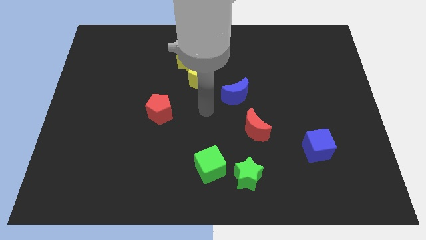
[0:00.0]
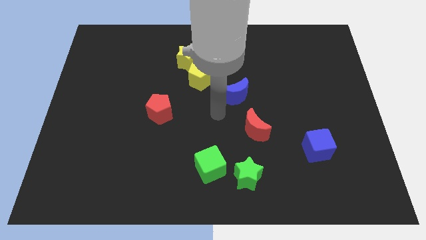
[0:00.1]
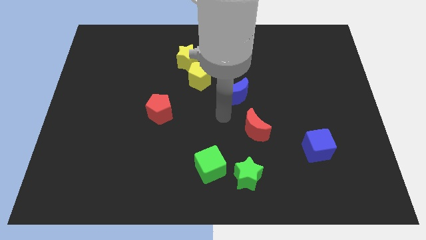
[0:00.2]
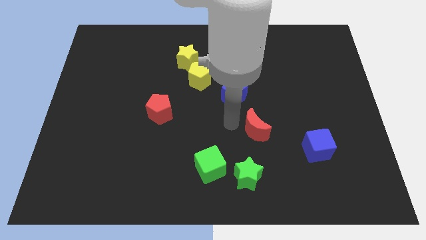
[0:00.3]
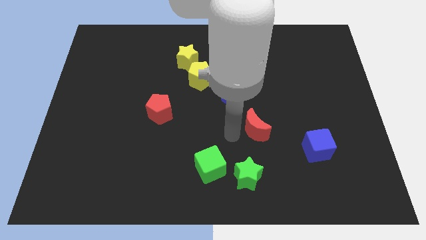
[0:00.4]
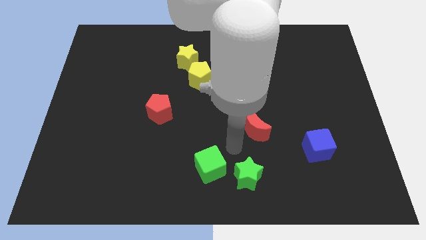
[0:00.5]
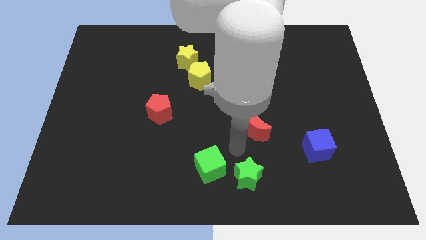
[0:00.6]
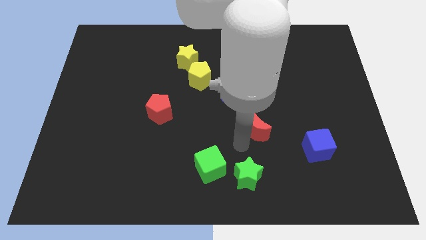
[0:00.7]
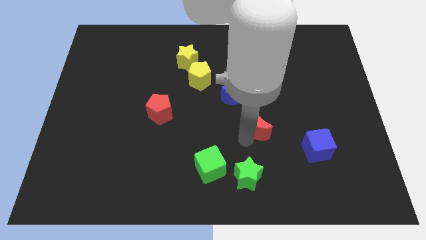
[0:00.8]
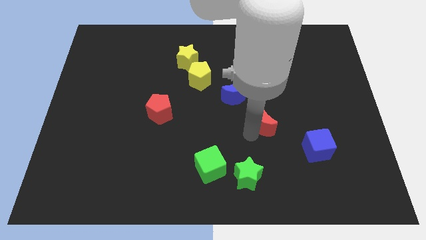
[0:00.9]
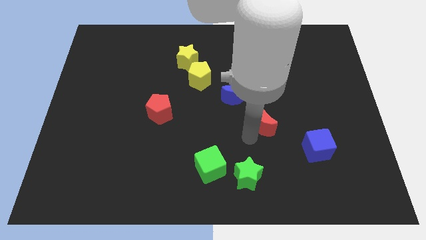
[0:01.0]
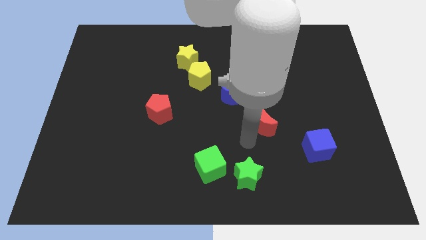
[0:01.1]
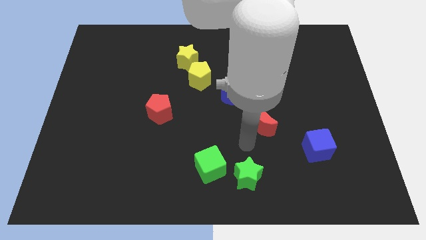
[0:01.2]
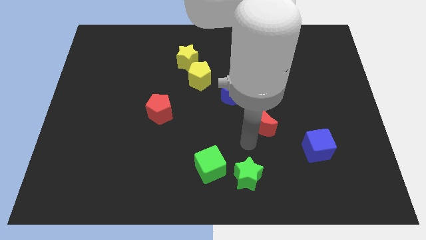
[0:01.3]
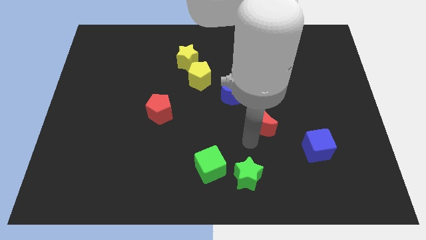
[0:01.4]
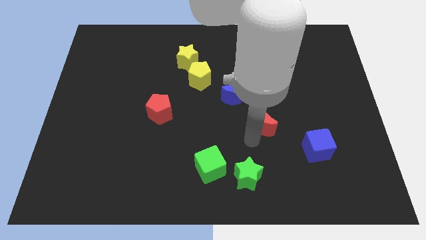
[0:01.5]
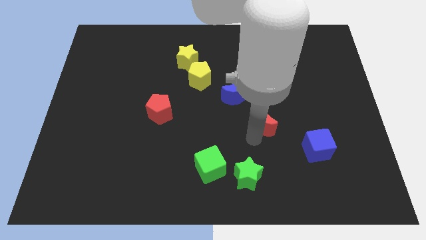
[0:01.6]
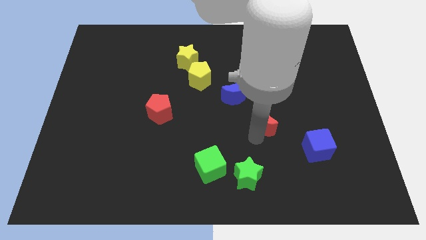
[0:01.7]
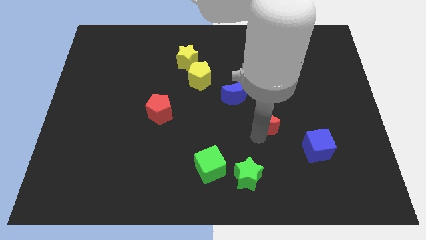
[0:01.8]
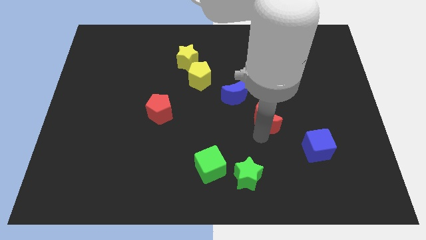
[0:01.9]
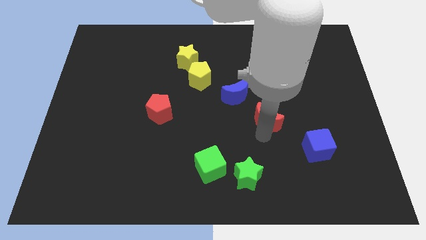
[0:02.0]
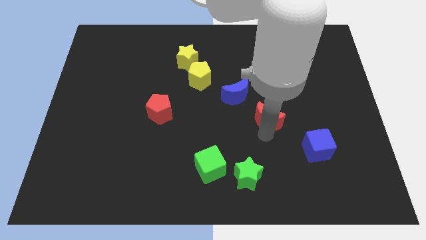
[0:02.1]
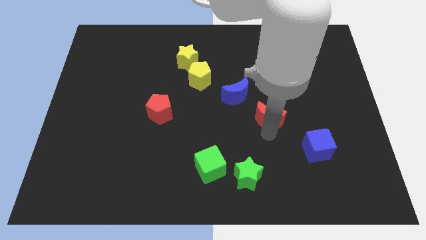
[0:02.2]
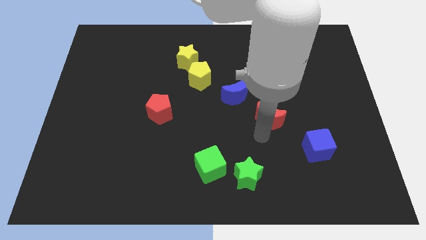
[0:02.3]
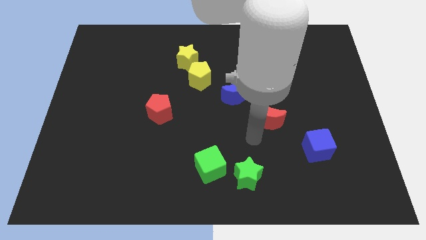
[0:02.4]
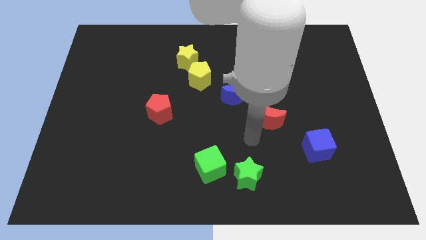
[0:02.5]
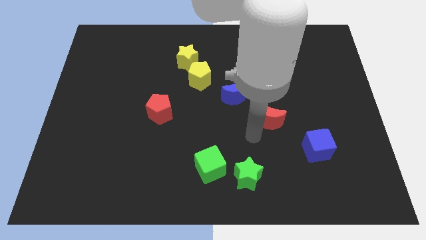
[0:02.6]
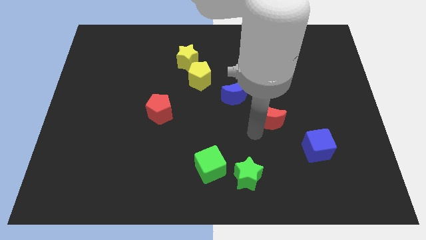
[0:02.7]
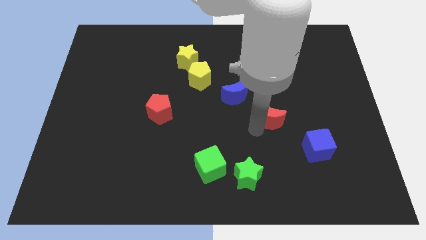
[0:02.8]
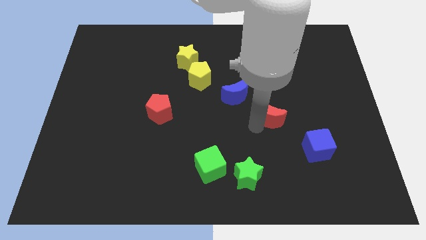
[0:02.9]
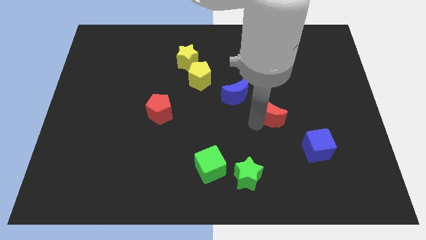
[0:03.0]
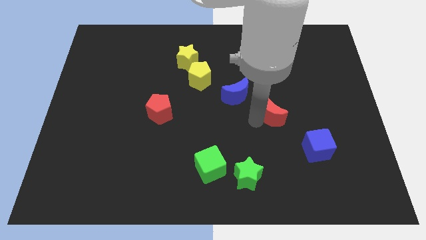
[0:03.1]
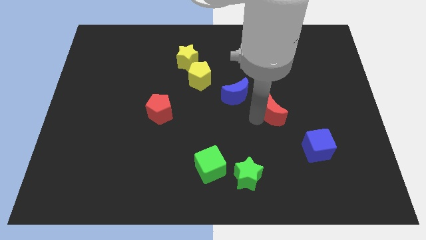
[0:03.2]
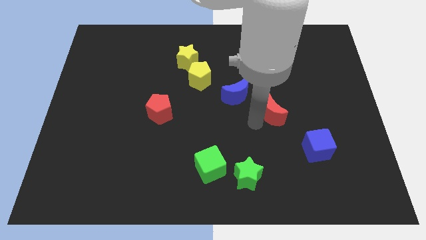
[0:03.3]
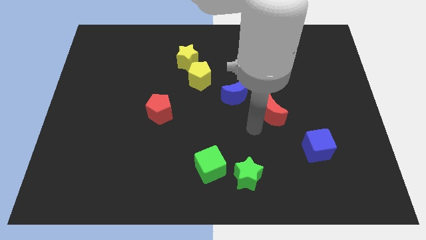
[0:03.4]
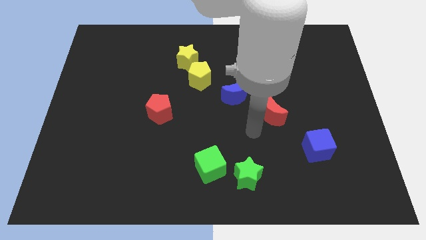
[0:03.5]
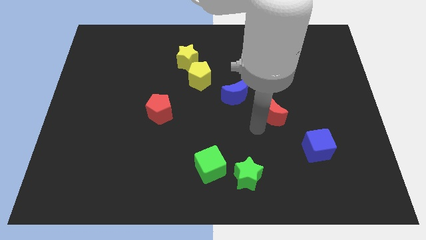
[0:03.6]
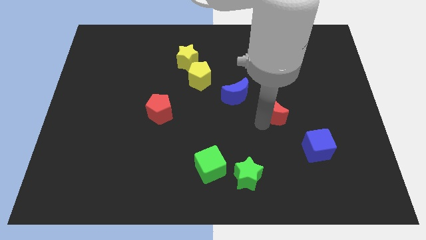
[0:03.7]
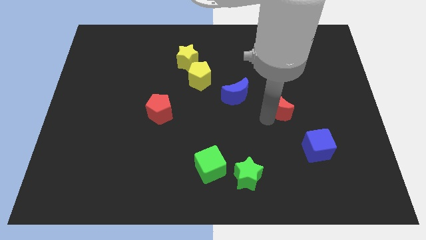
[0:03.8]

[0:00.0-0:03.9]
push the red moon diagonally up and right slightly

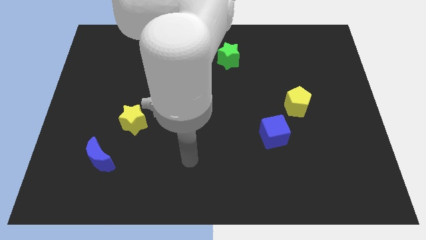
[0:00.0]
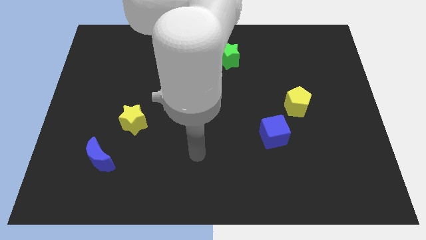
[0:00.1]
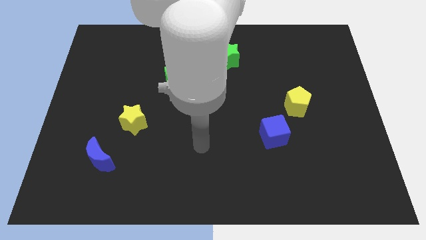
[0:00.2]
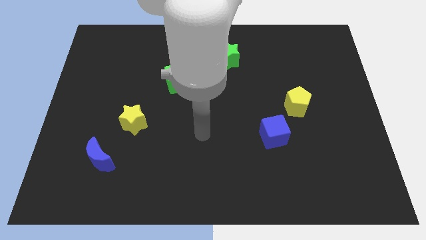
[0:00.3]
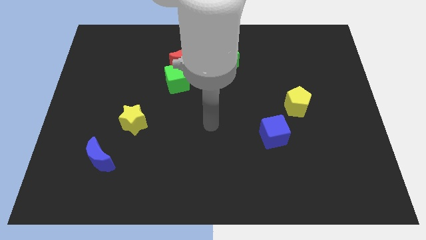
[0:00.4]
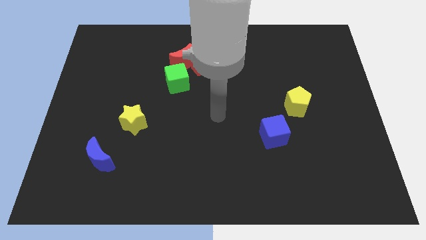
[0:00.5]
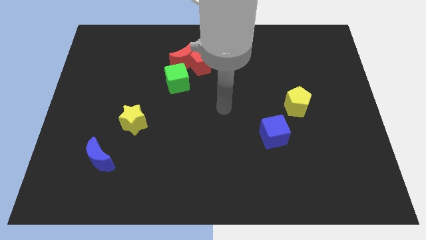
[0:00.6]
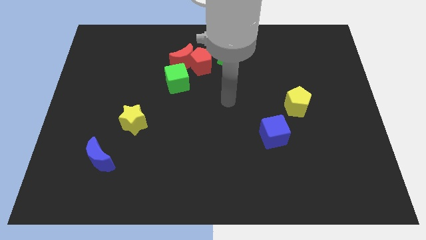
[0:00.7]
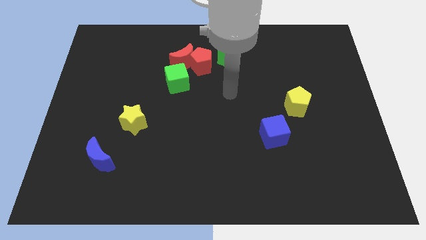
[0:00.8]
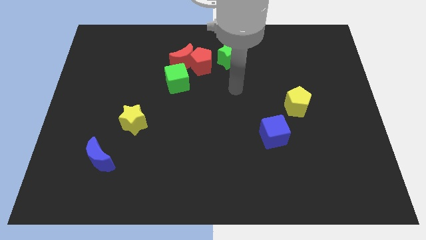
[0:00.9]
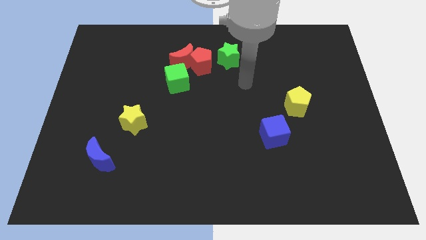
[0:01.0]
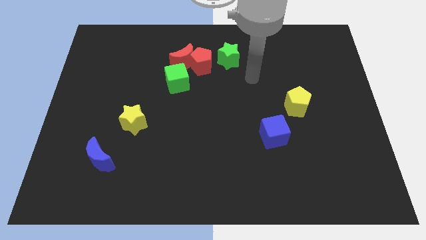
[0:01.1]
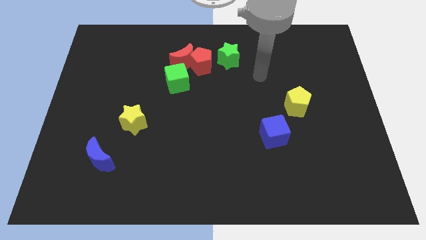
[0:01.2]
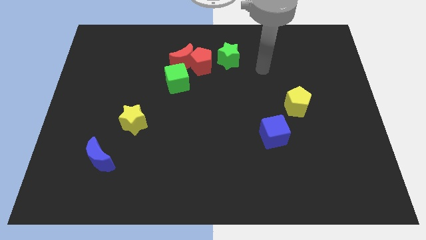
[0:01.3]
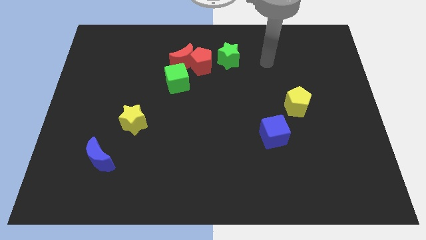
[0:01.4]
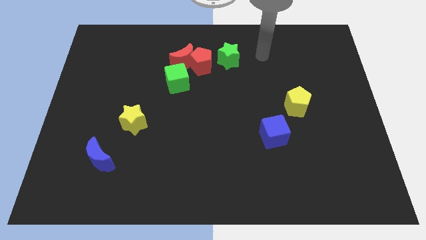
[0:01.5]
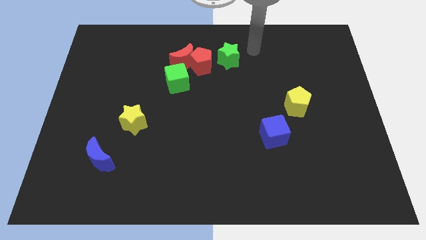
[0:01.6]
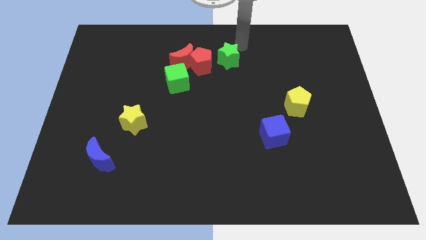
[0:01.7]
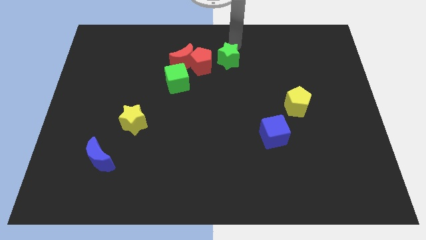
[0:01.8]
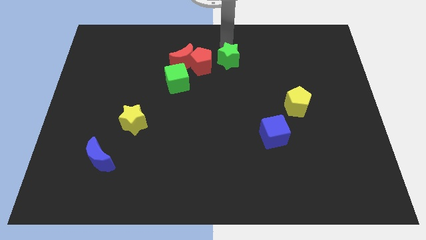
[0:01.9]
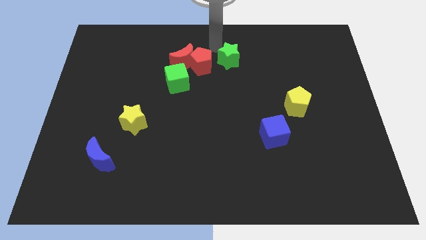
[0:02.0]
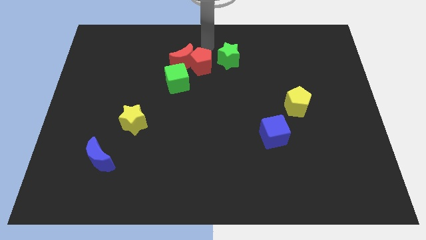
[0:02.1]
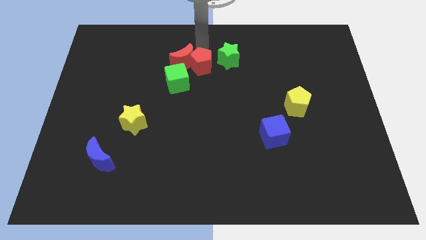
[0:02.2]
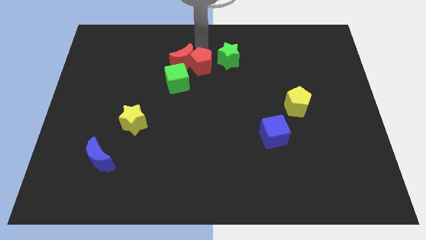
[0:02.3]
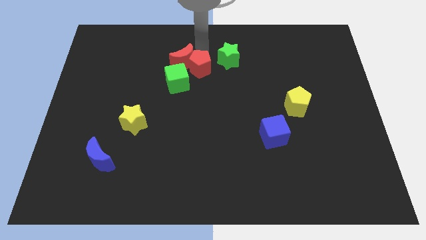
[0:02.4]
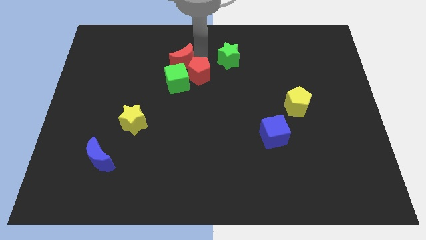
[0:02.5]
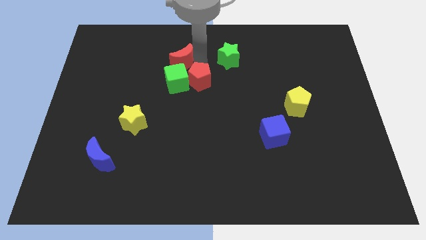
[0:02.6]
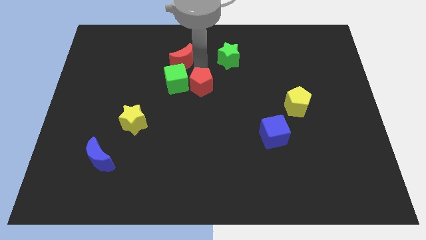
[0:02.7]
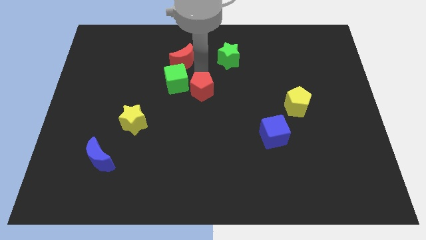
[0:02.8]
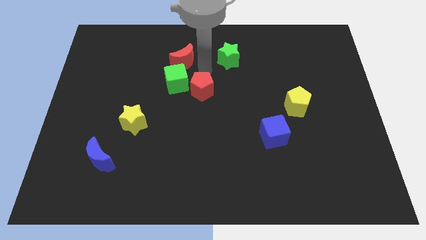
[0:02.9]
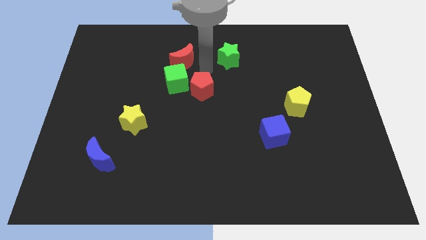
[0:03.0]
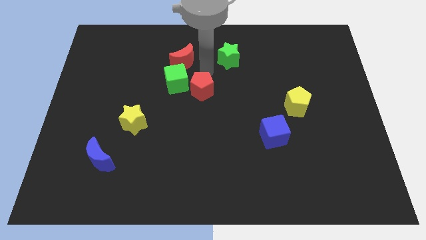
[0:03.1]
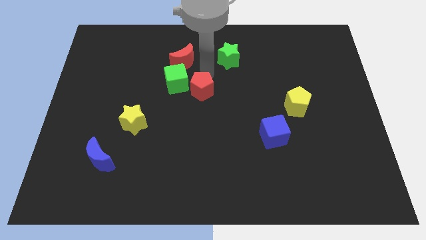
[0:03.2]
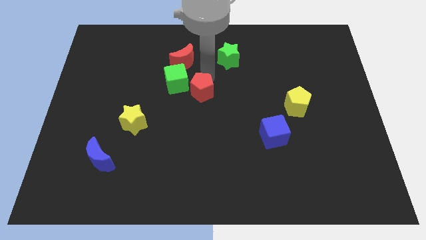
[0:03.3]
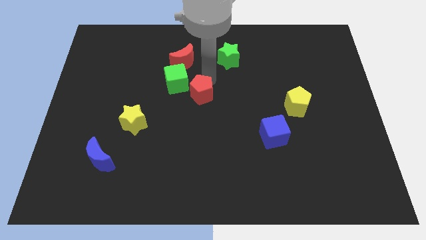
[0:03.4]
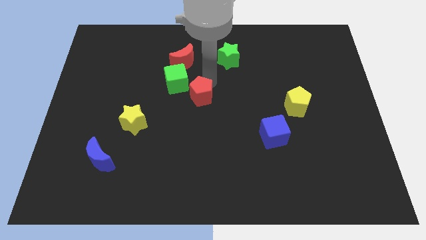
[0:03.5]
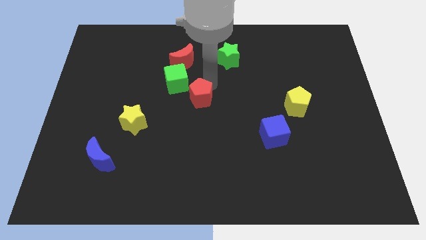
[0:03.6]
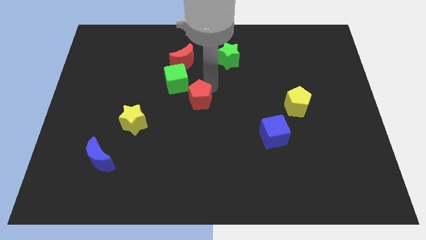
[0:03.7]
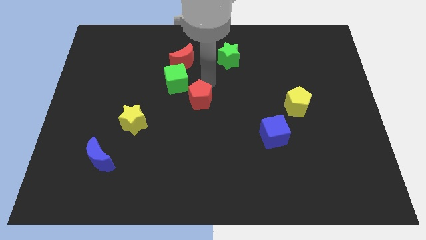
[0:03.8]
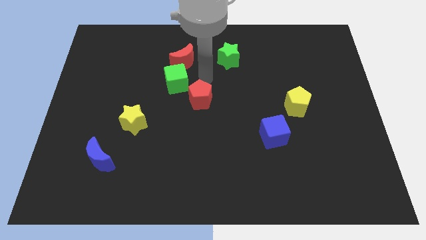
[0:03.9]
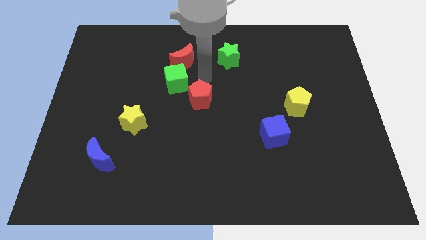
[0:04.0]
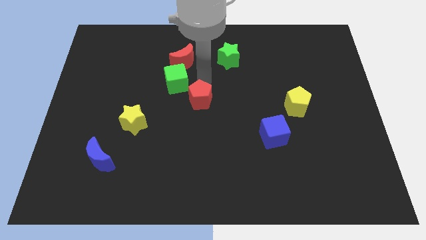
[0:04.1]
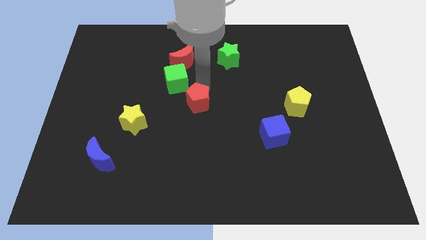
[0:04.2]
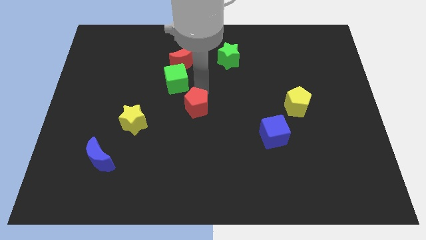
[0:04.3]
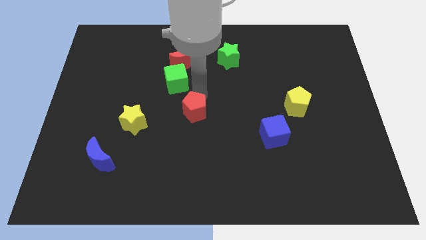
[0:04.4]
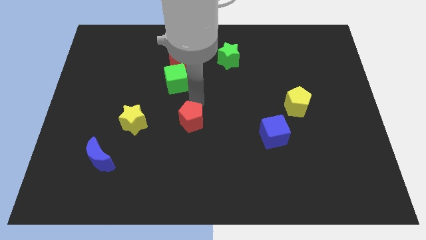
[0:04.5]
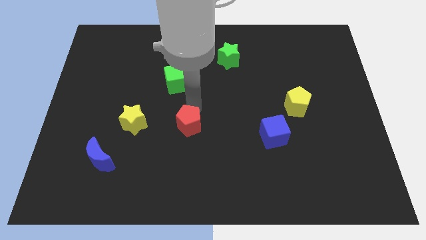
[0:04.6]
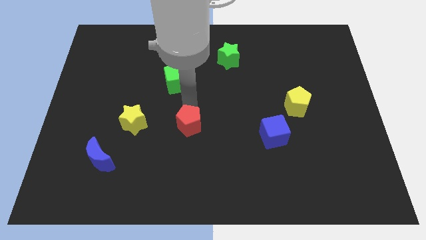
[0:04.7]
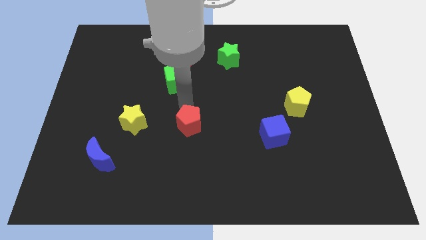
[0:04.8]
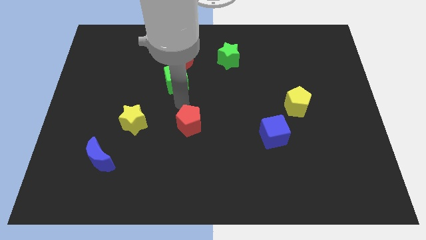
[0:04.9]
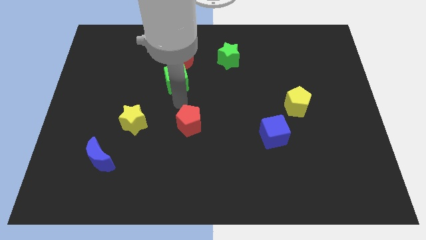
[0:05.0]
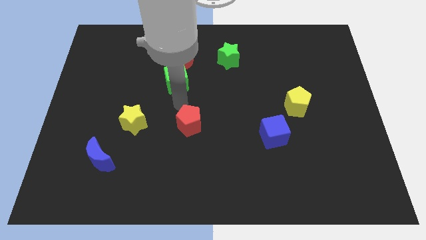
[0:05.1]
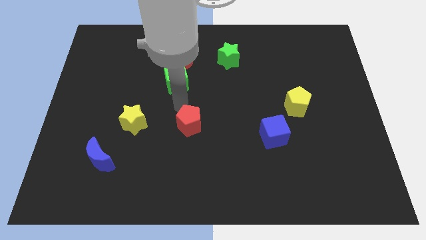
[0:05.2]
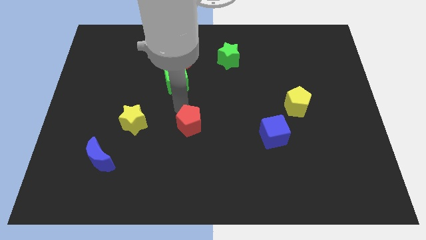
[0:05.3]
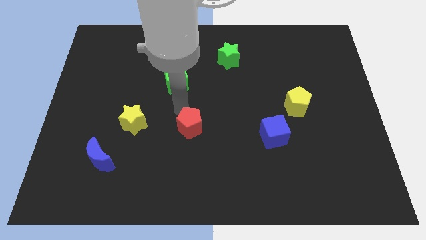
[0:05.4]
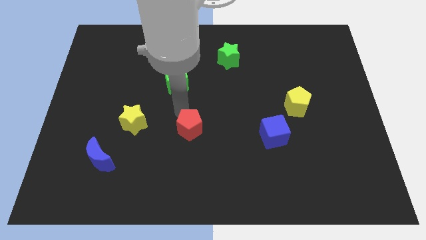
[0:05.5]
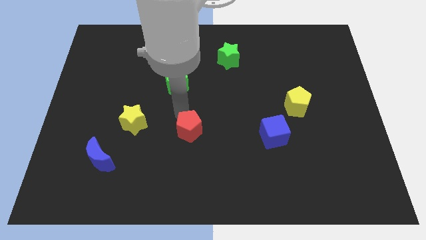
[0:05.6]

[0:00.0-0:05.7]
slide the red pentagon downwards
